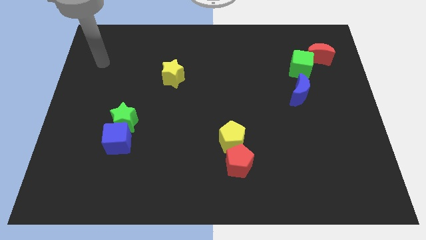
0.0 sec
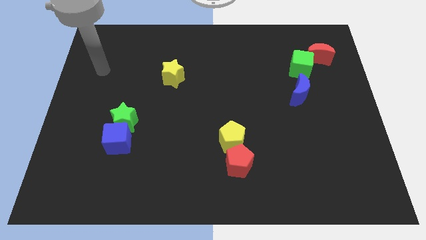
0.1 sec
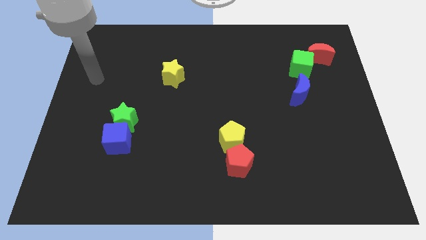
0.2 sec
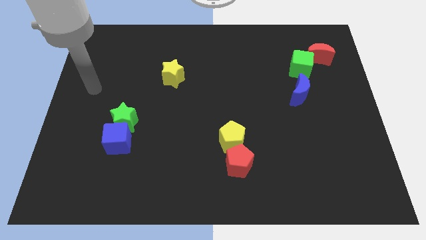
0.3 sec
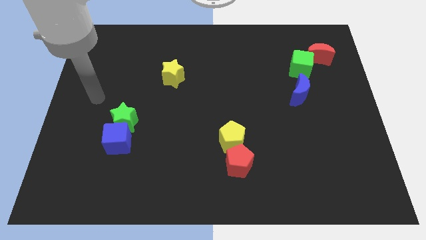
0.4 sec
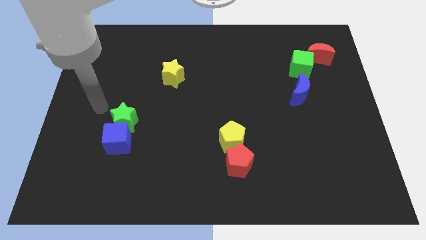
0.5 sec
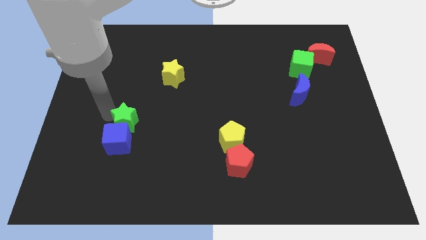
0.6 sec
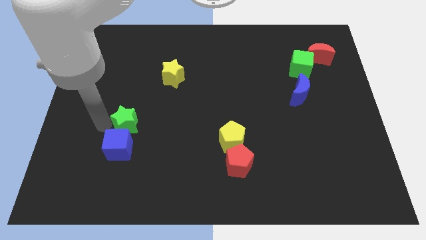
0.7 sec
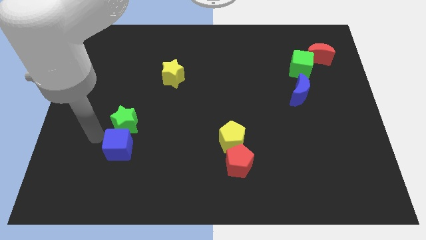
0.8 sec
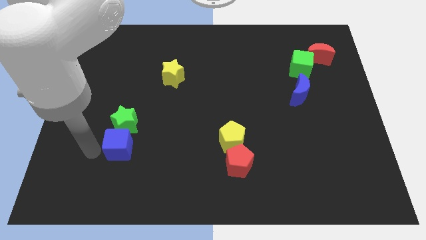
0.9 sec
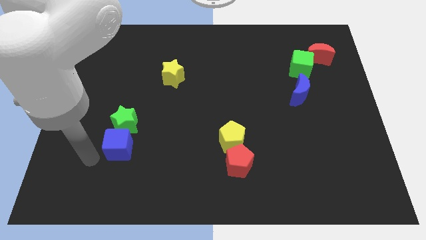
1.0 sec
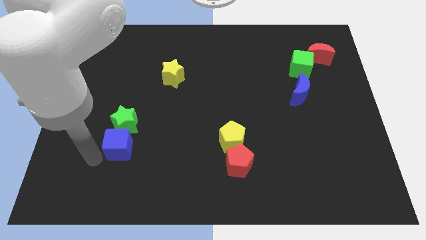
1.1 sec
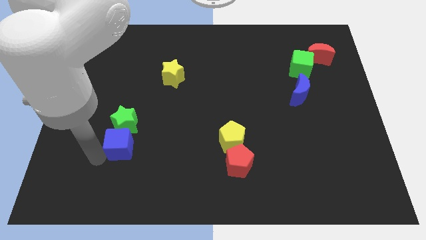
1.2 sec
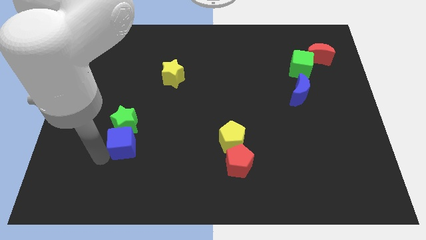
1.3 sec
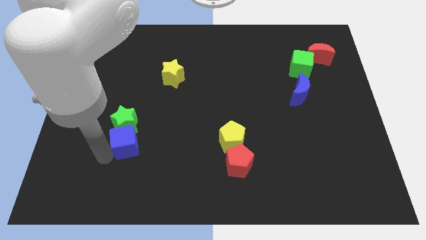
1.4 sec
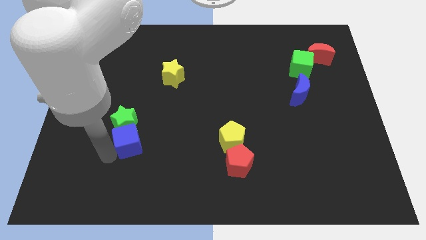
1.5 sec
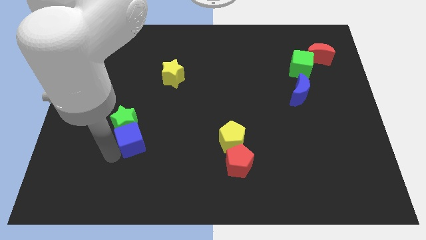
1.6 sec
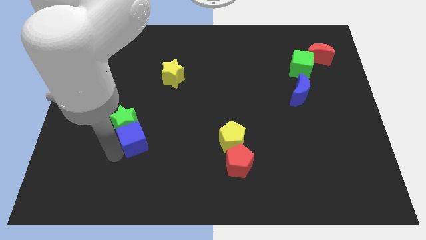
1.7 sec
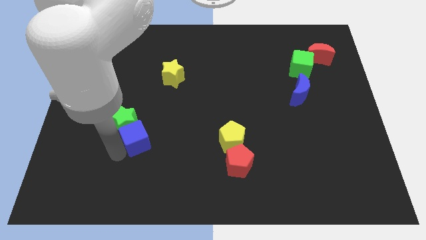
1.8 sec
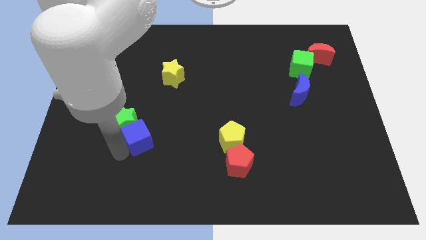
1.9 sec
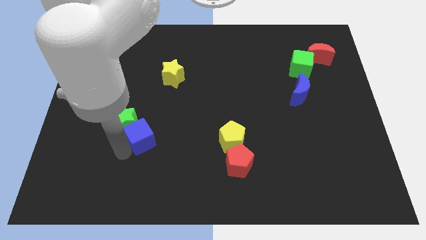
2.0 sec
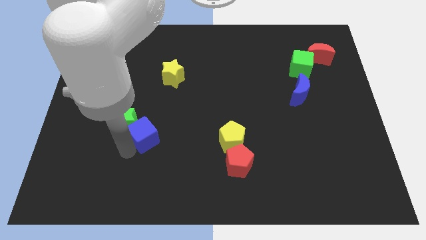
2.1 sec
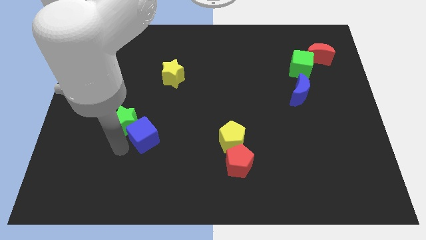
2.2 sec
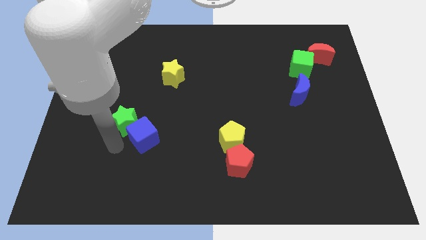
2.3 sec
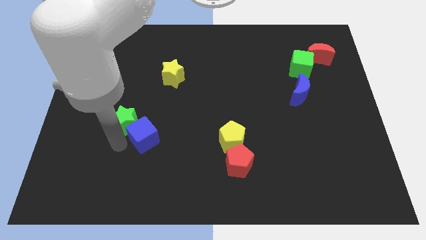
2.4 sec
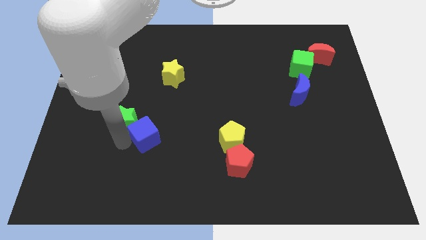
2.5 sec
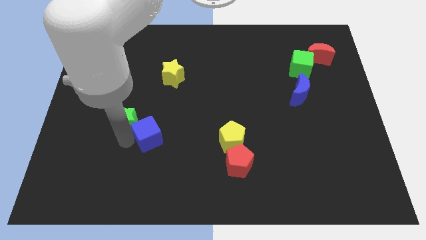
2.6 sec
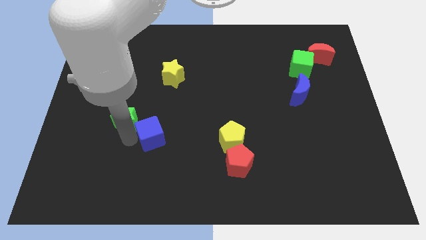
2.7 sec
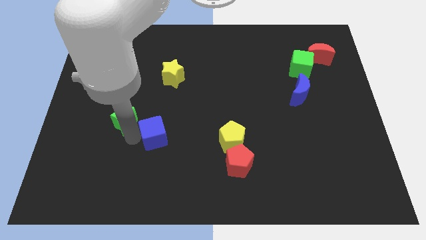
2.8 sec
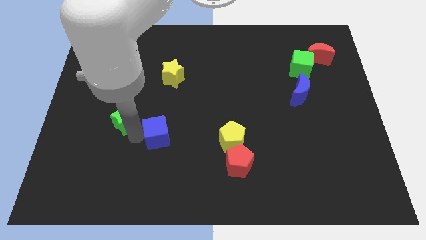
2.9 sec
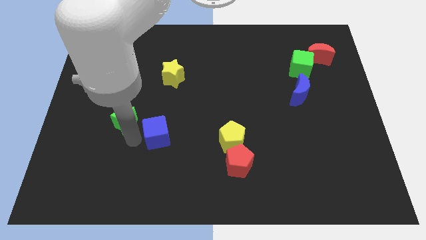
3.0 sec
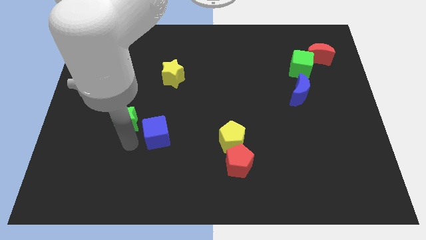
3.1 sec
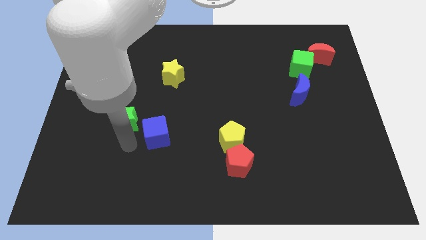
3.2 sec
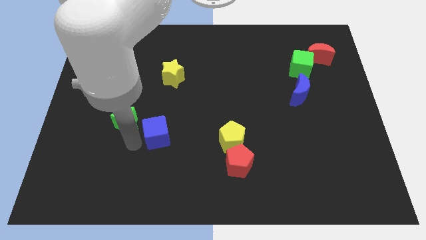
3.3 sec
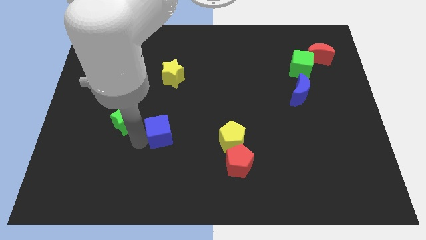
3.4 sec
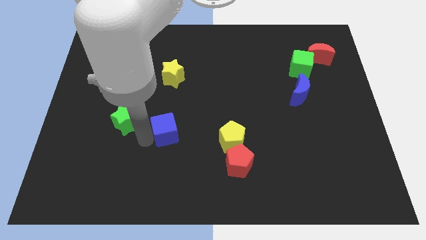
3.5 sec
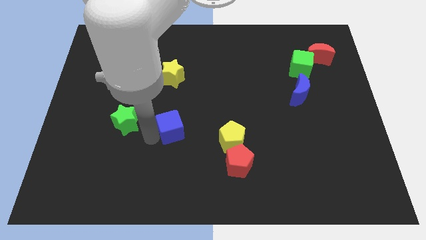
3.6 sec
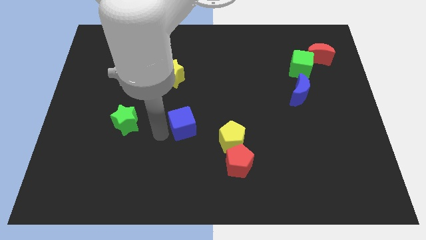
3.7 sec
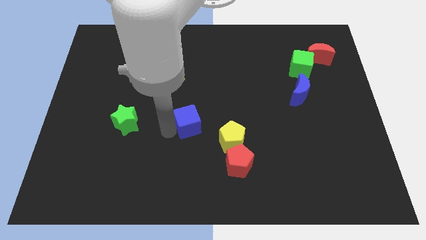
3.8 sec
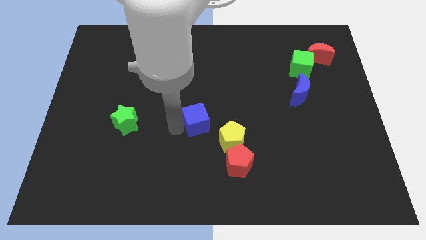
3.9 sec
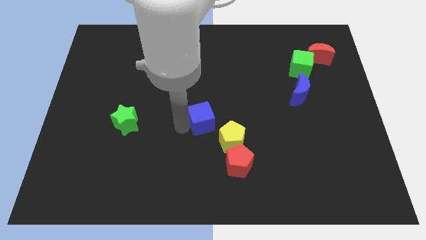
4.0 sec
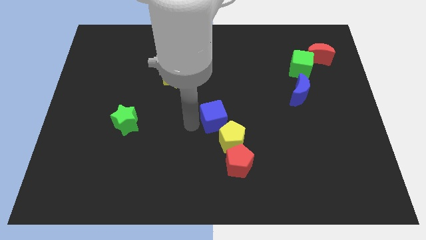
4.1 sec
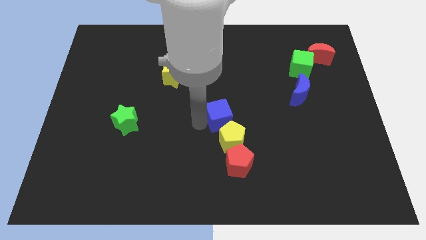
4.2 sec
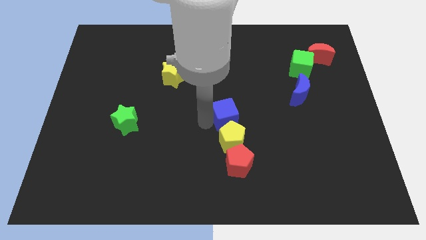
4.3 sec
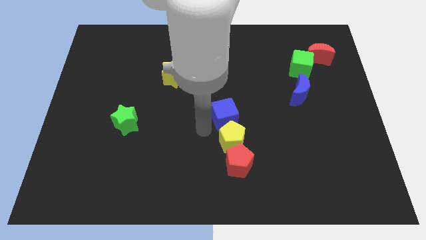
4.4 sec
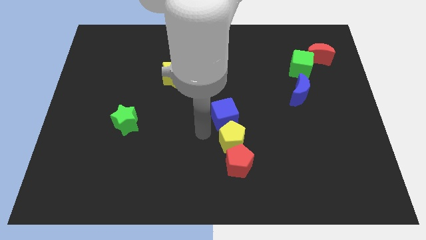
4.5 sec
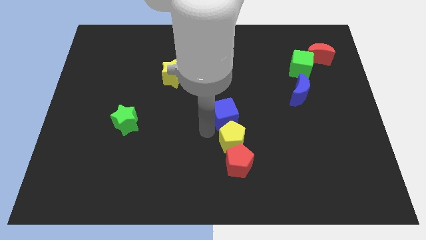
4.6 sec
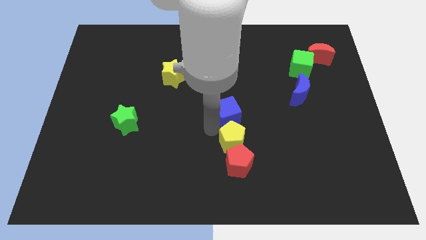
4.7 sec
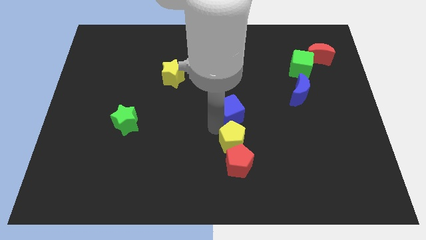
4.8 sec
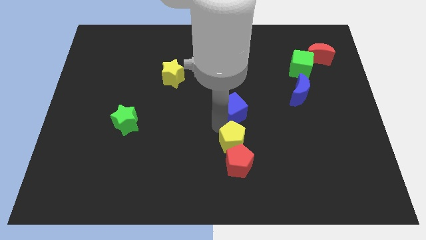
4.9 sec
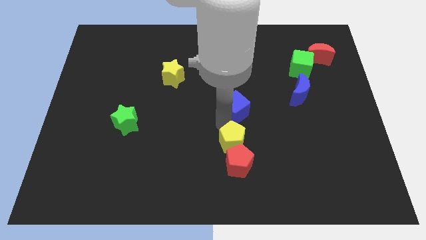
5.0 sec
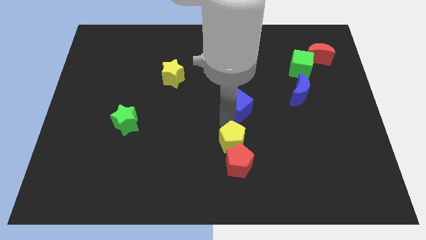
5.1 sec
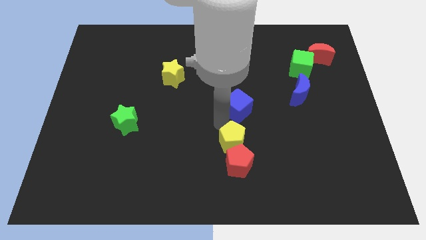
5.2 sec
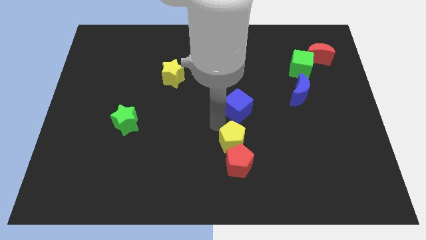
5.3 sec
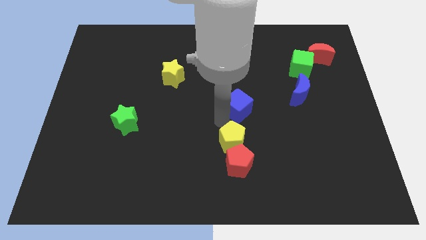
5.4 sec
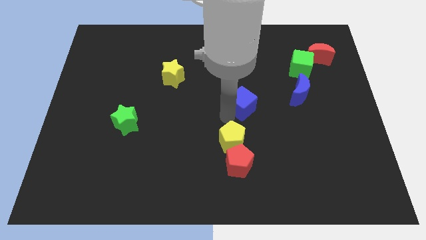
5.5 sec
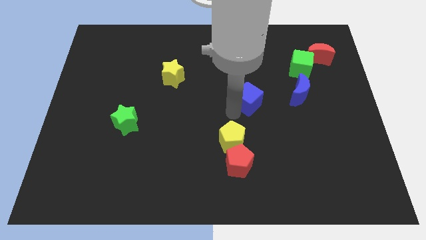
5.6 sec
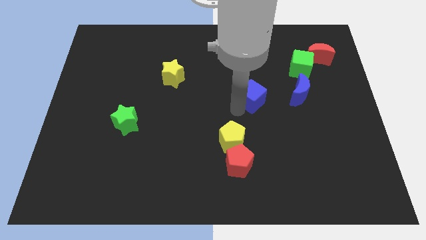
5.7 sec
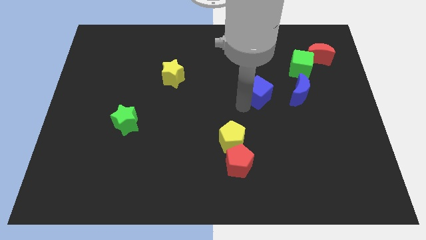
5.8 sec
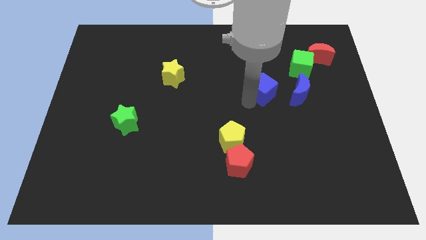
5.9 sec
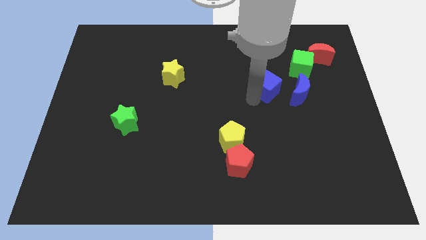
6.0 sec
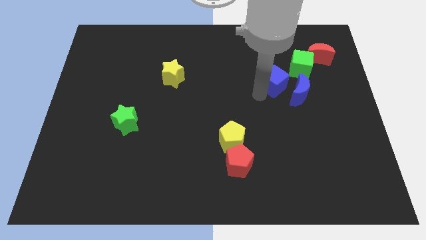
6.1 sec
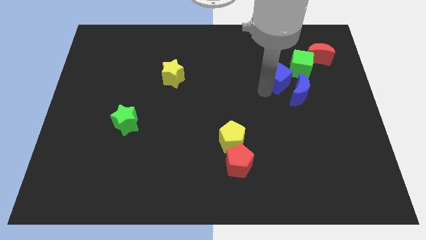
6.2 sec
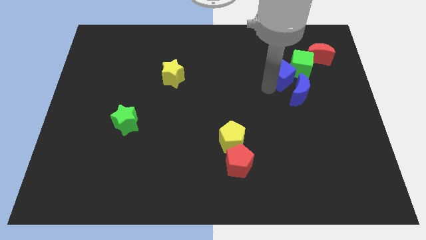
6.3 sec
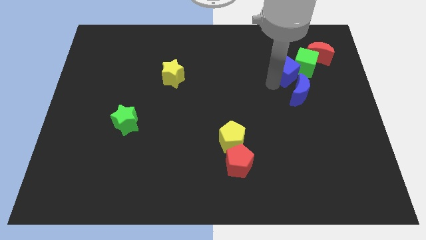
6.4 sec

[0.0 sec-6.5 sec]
put the blue cube next to the green cube
